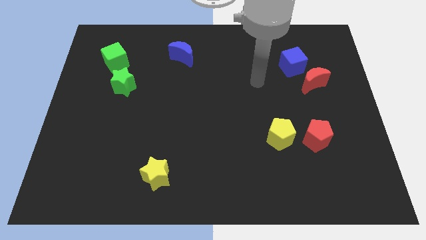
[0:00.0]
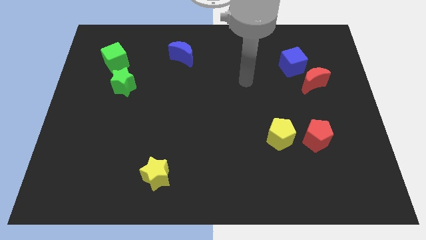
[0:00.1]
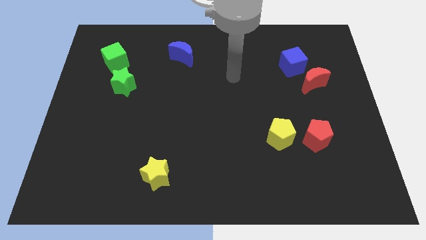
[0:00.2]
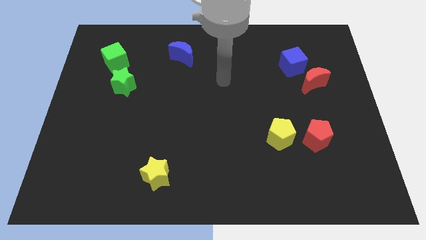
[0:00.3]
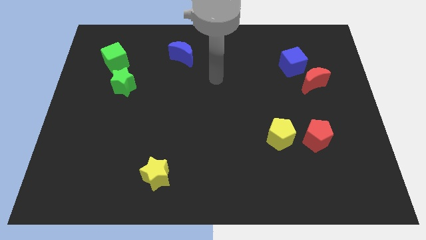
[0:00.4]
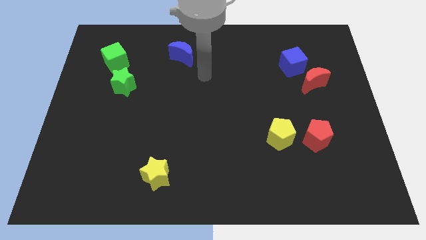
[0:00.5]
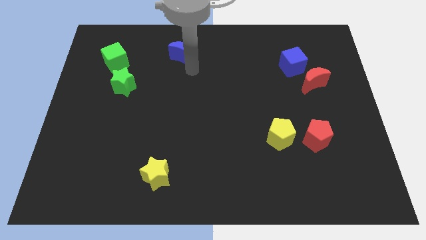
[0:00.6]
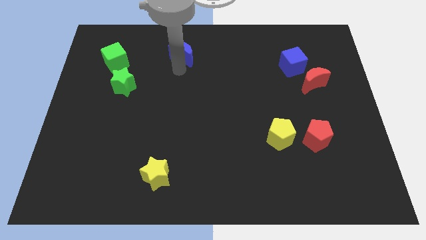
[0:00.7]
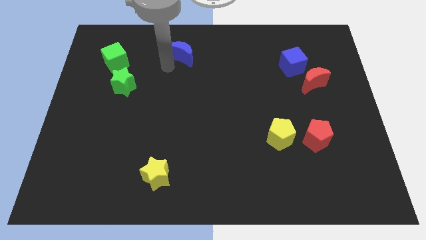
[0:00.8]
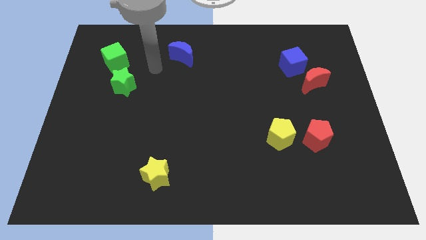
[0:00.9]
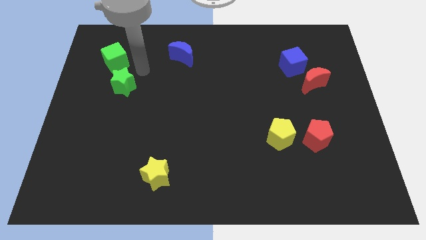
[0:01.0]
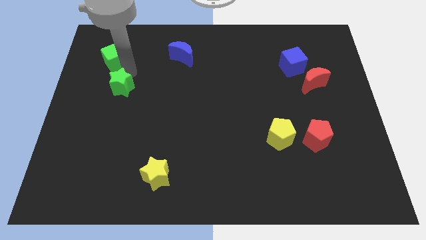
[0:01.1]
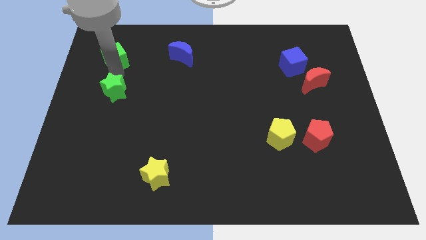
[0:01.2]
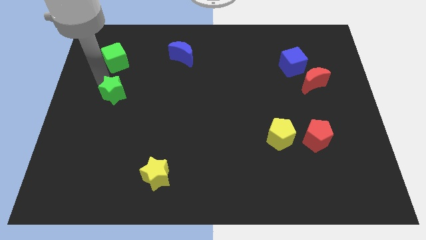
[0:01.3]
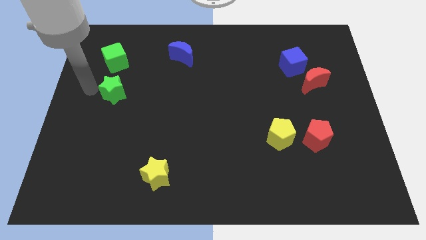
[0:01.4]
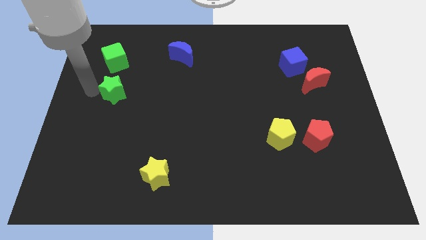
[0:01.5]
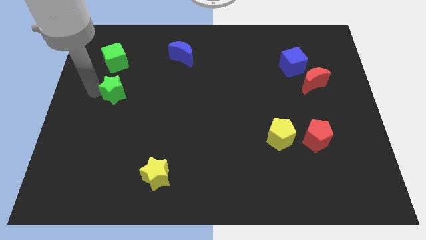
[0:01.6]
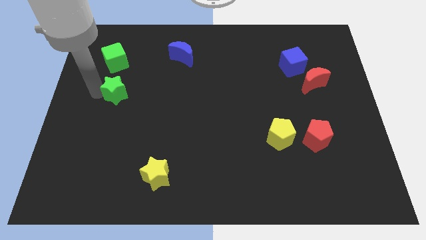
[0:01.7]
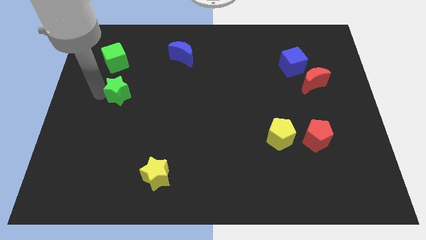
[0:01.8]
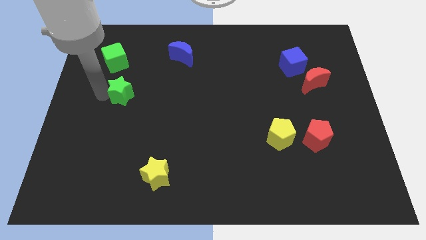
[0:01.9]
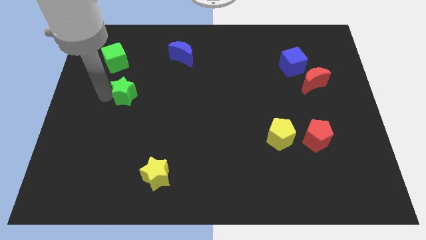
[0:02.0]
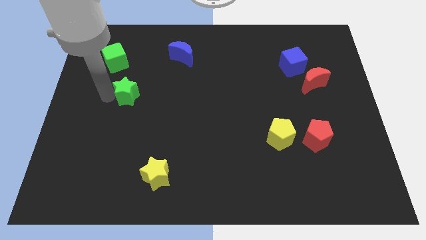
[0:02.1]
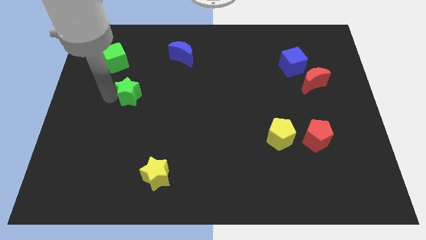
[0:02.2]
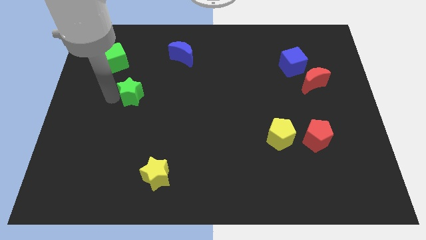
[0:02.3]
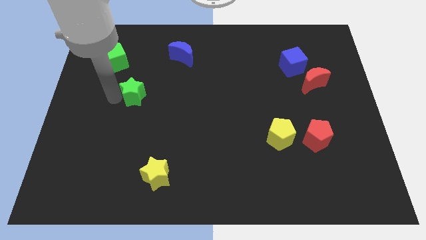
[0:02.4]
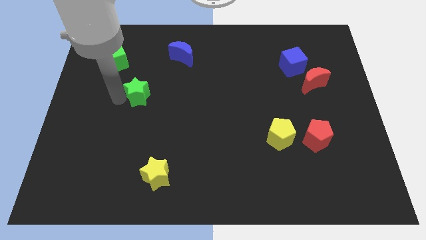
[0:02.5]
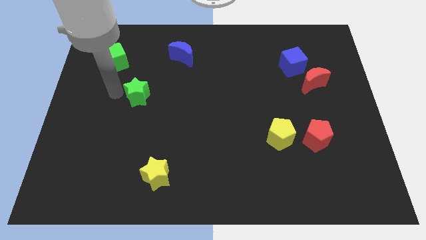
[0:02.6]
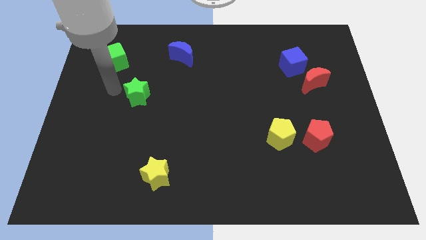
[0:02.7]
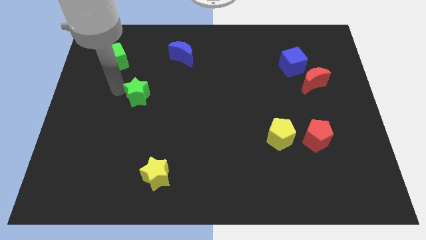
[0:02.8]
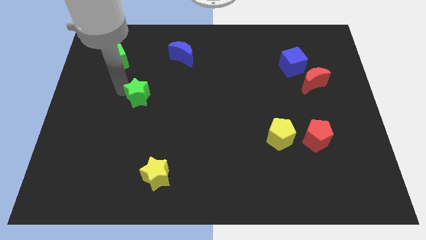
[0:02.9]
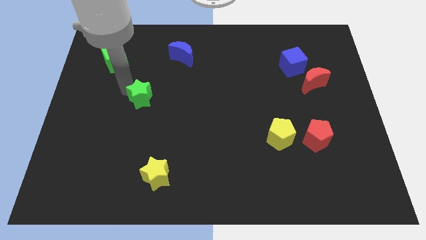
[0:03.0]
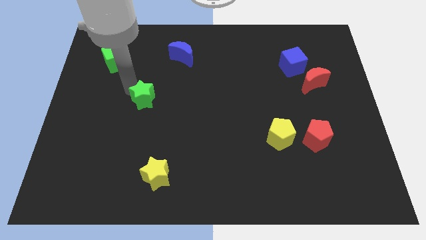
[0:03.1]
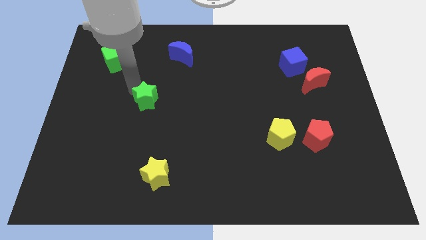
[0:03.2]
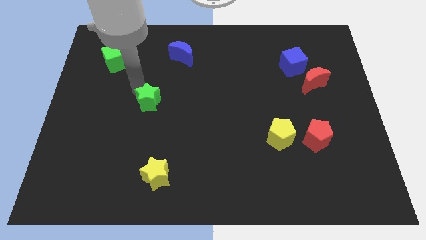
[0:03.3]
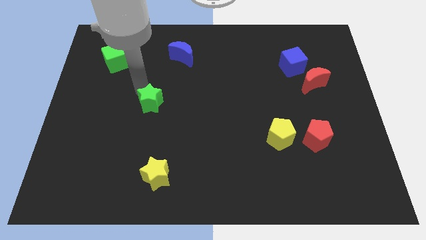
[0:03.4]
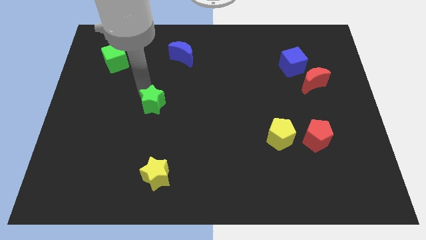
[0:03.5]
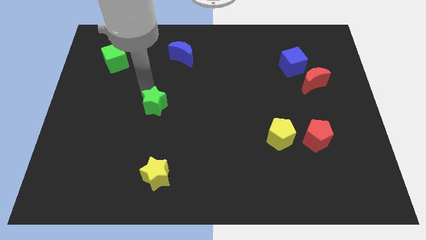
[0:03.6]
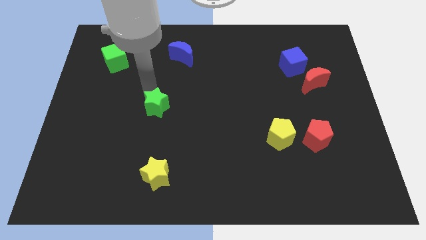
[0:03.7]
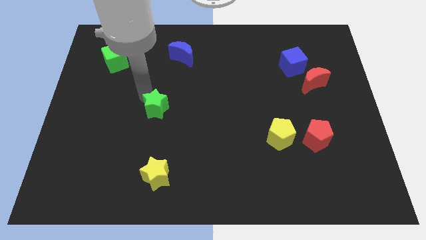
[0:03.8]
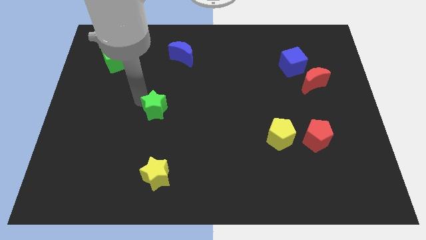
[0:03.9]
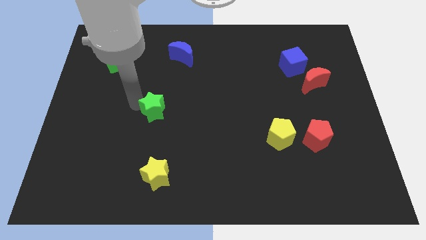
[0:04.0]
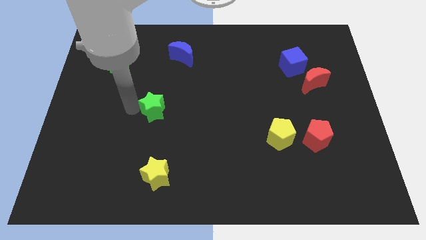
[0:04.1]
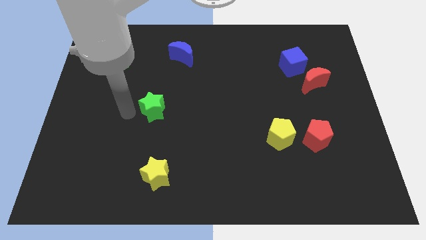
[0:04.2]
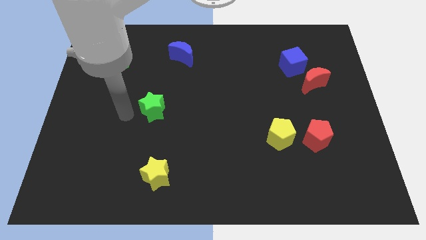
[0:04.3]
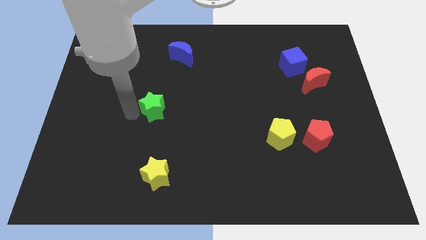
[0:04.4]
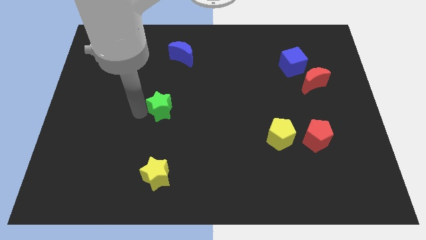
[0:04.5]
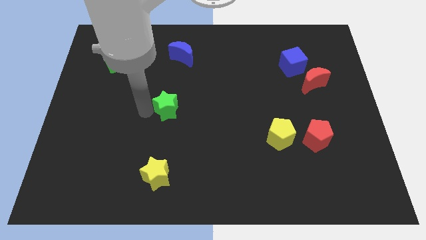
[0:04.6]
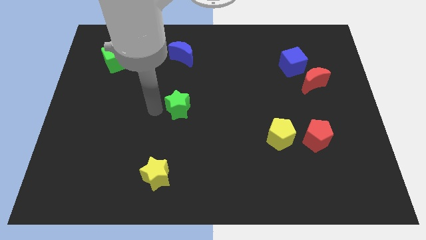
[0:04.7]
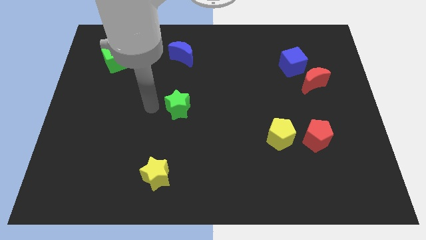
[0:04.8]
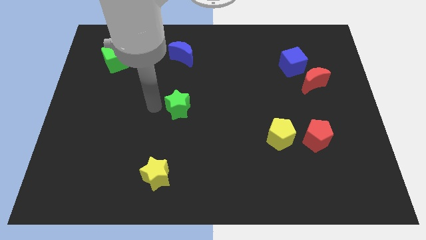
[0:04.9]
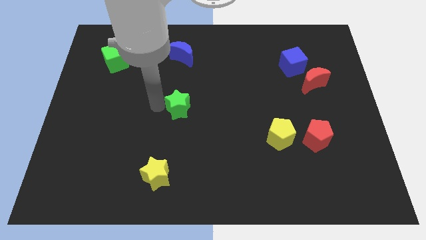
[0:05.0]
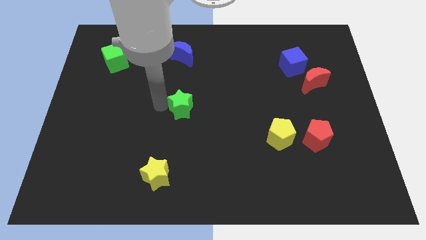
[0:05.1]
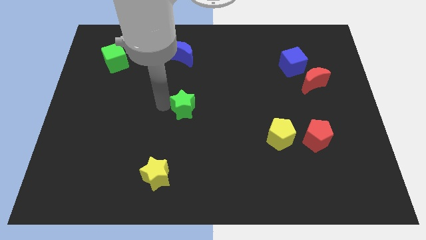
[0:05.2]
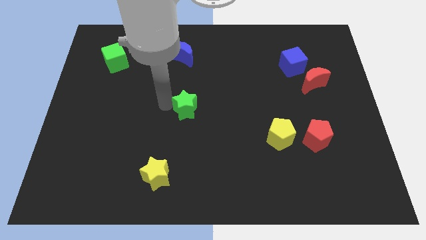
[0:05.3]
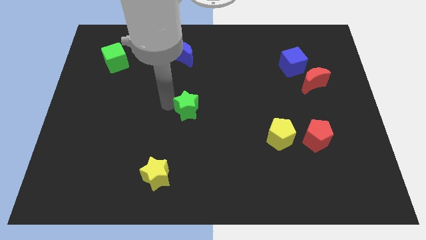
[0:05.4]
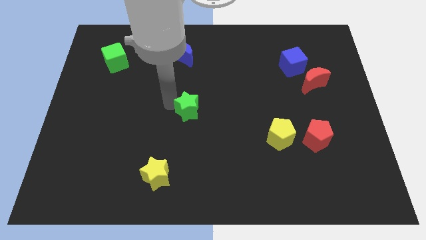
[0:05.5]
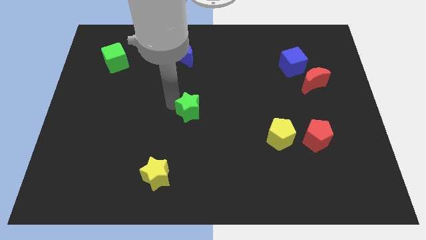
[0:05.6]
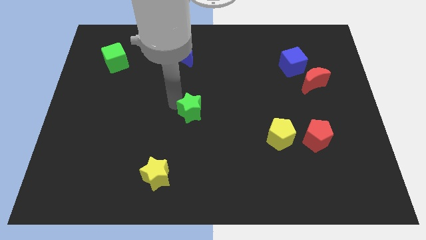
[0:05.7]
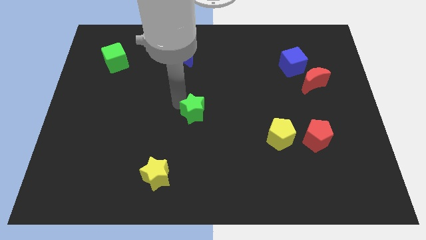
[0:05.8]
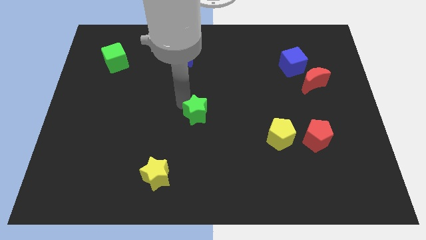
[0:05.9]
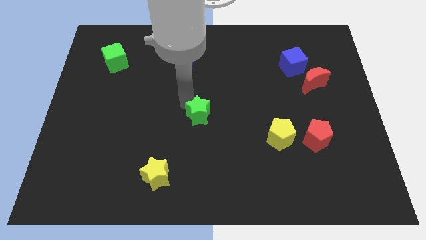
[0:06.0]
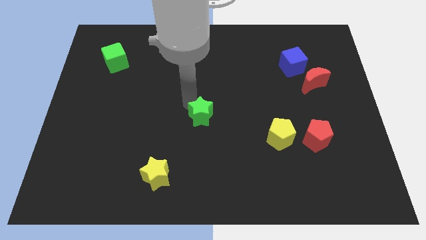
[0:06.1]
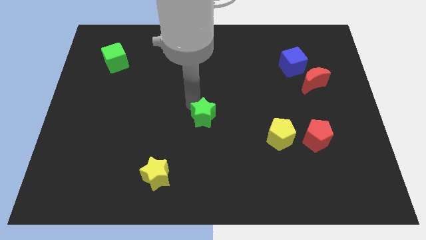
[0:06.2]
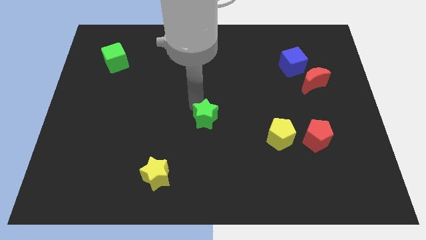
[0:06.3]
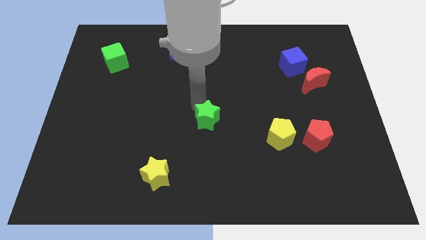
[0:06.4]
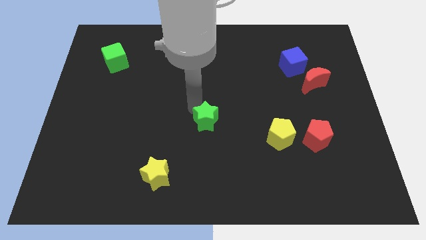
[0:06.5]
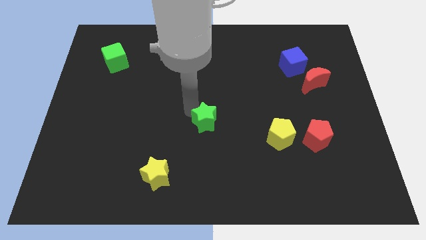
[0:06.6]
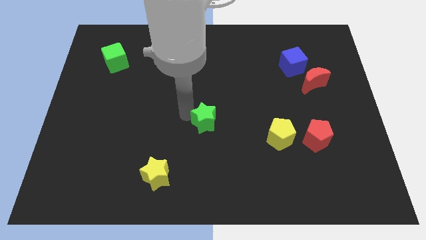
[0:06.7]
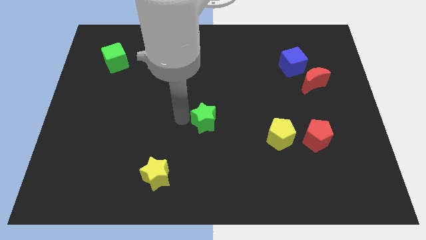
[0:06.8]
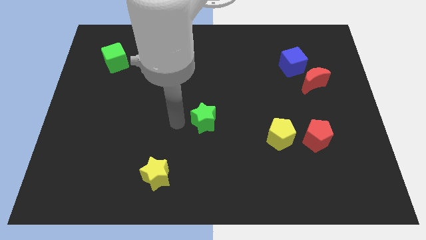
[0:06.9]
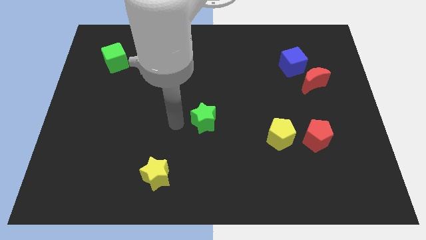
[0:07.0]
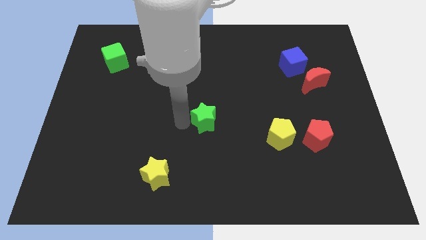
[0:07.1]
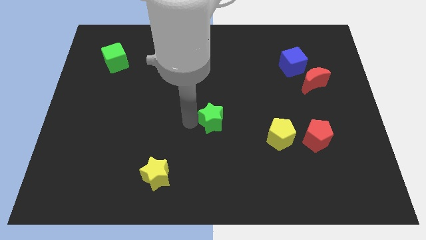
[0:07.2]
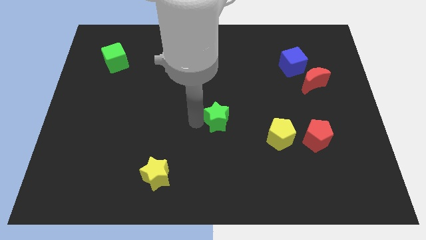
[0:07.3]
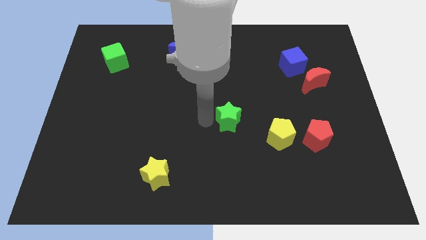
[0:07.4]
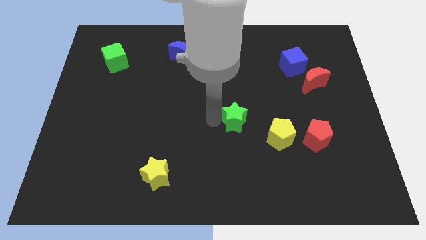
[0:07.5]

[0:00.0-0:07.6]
move the green star to the top left side of the yellow pentagon
